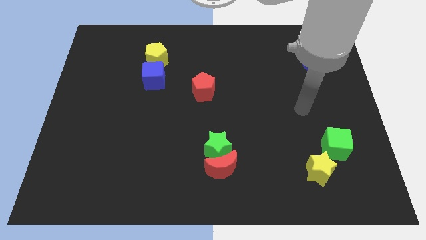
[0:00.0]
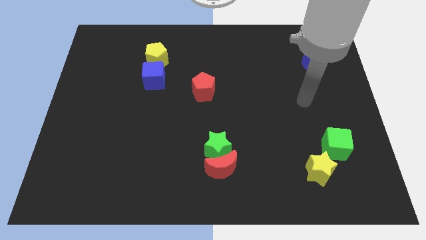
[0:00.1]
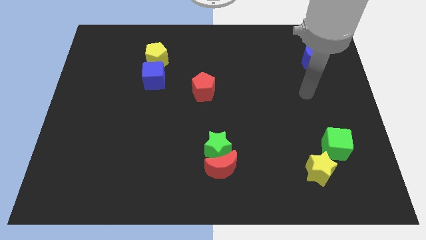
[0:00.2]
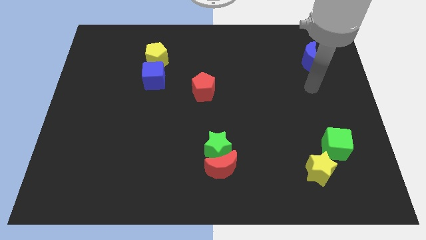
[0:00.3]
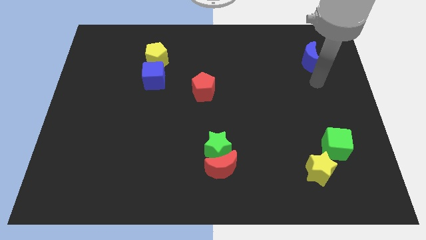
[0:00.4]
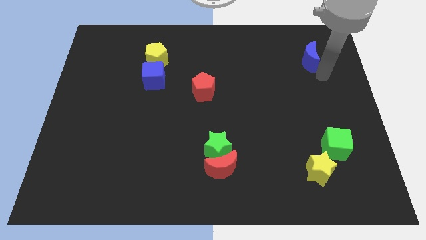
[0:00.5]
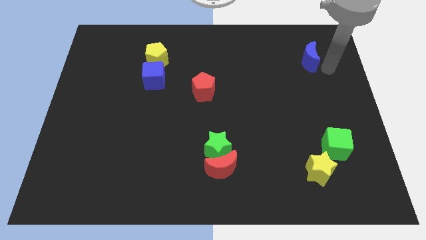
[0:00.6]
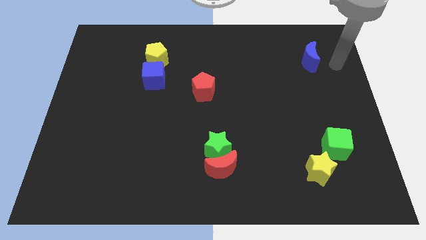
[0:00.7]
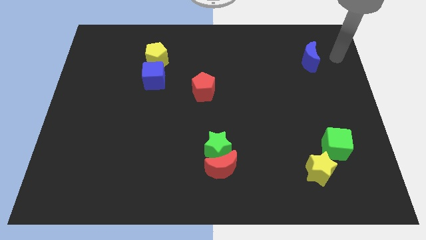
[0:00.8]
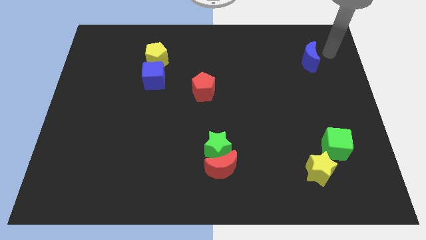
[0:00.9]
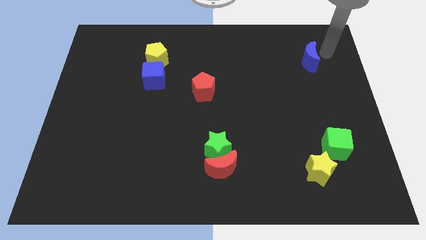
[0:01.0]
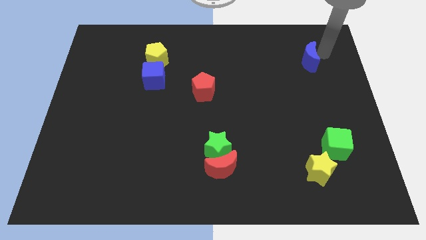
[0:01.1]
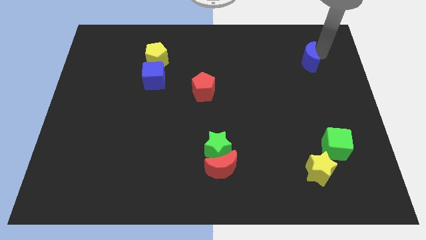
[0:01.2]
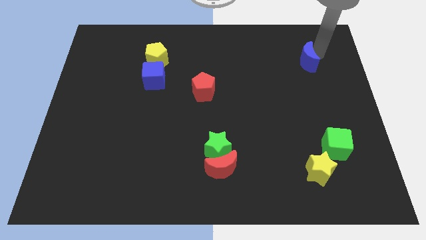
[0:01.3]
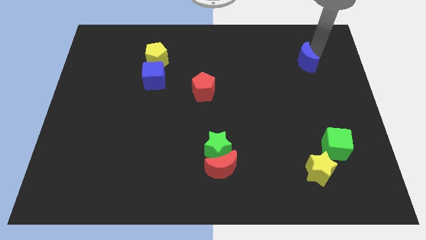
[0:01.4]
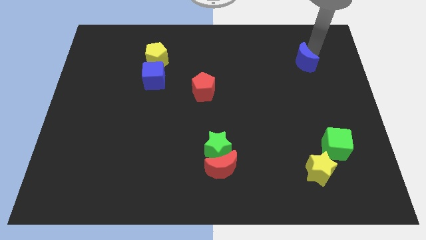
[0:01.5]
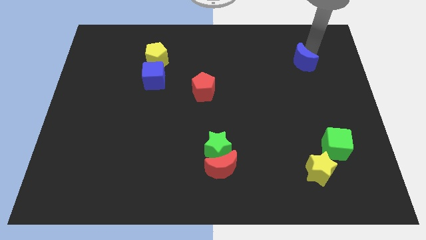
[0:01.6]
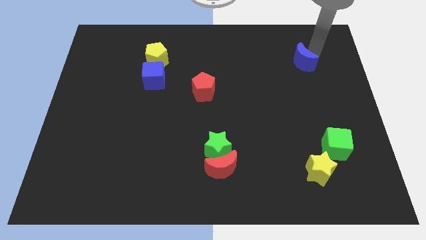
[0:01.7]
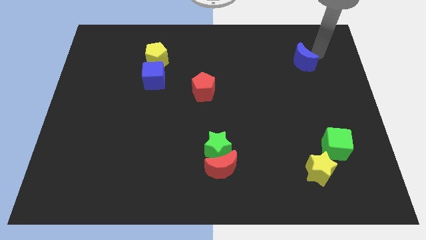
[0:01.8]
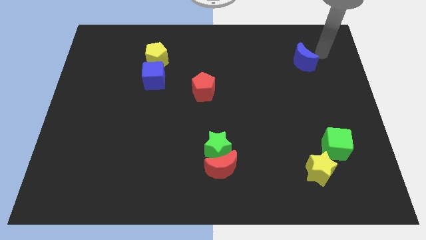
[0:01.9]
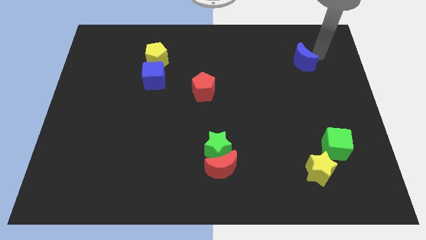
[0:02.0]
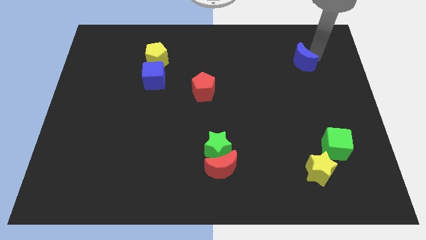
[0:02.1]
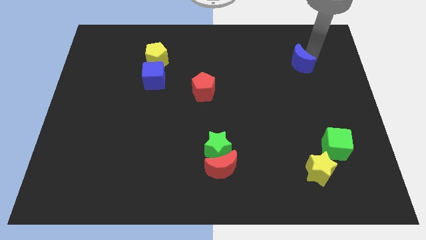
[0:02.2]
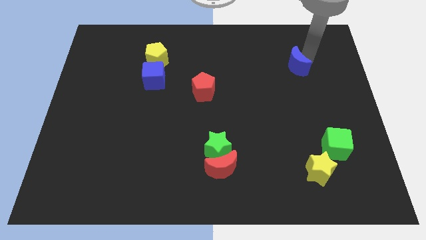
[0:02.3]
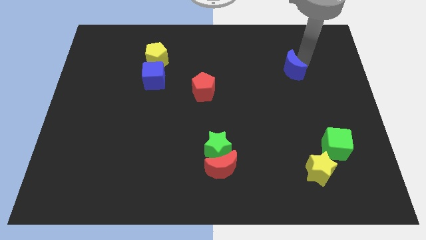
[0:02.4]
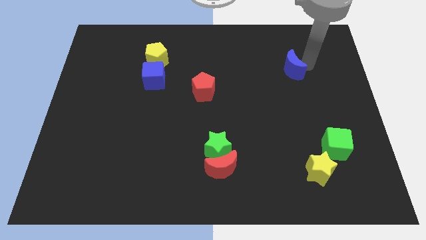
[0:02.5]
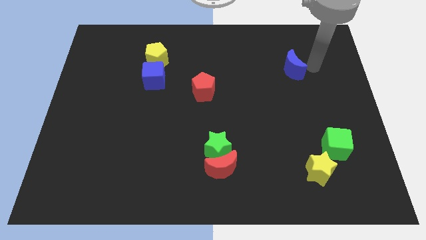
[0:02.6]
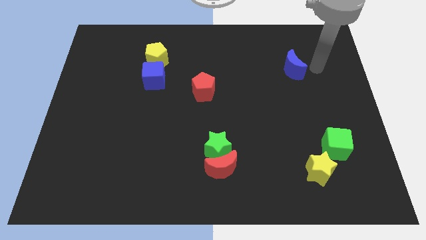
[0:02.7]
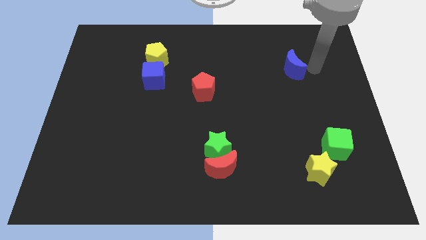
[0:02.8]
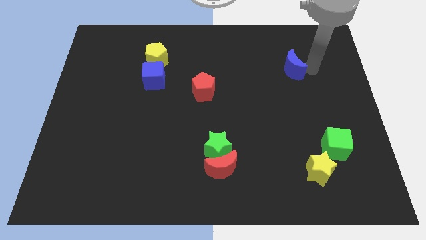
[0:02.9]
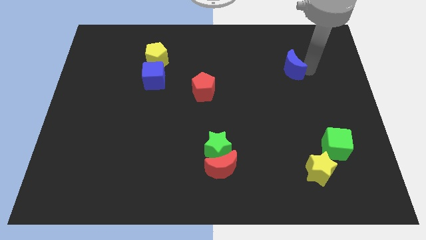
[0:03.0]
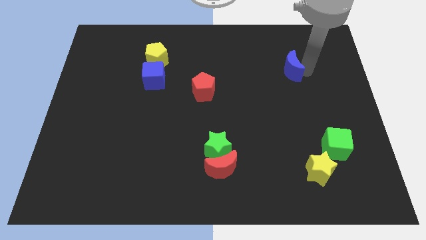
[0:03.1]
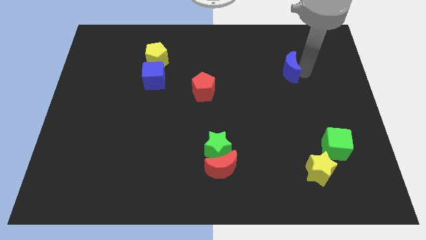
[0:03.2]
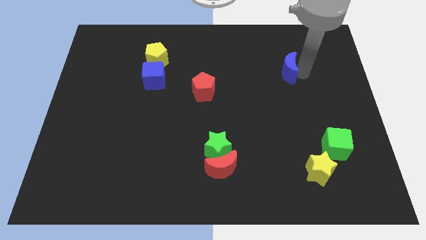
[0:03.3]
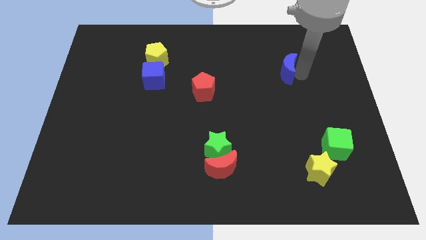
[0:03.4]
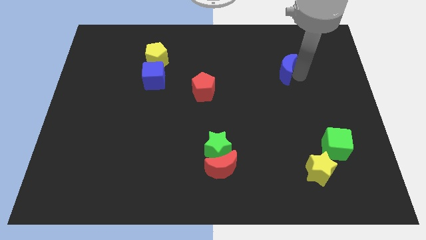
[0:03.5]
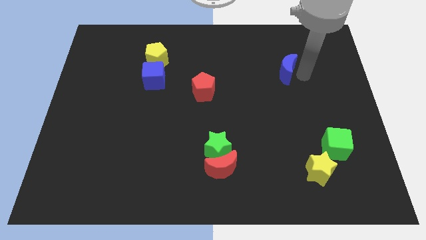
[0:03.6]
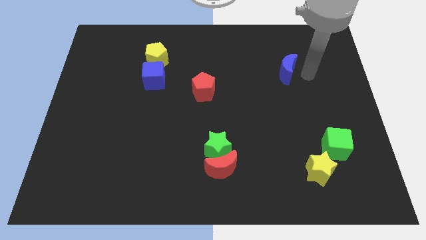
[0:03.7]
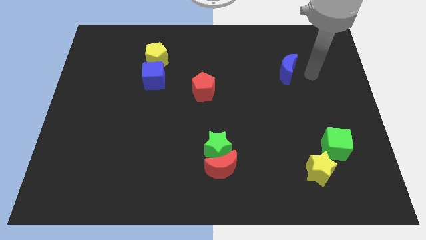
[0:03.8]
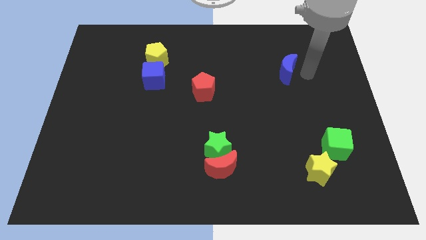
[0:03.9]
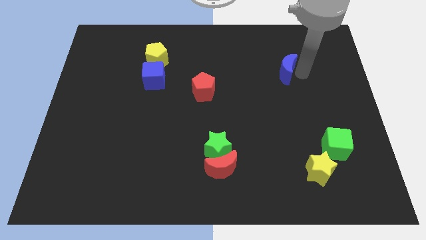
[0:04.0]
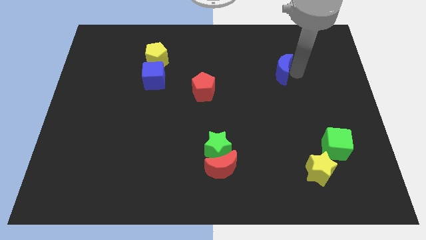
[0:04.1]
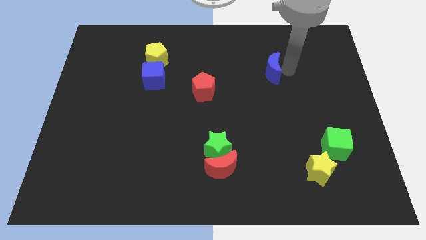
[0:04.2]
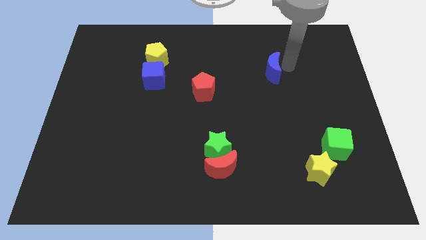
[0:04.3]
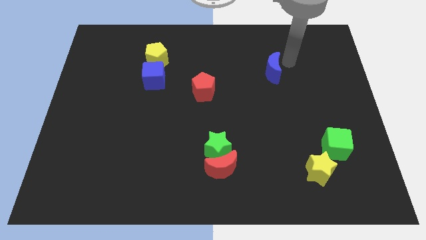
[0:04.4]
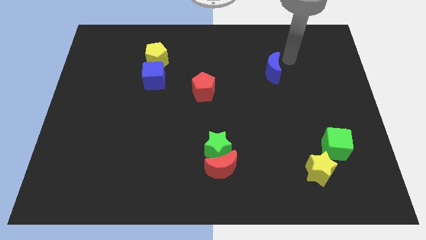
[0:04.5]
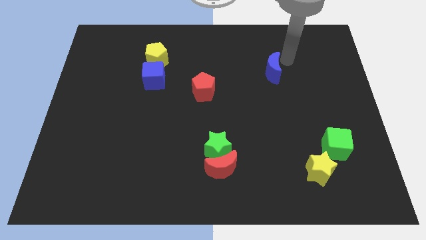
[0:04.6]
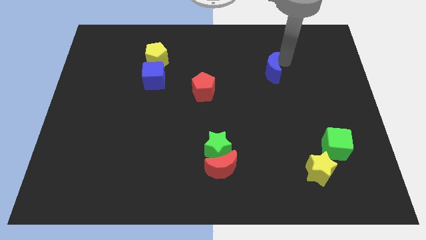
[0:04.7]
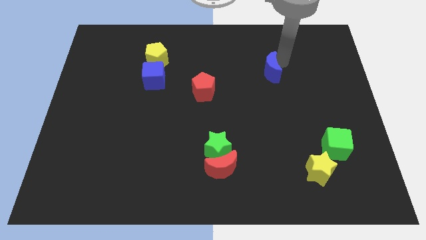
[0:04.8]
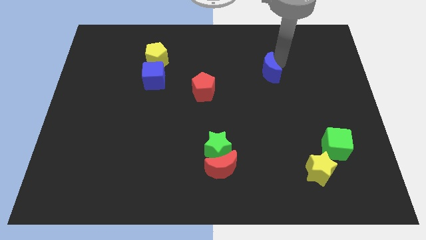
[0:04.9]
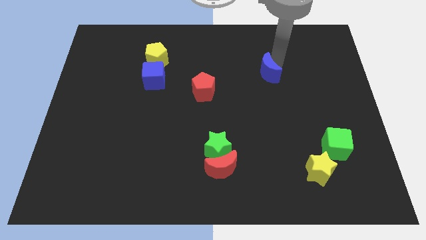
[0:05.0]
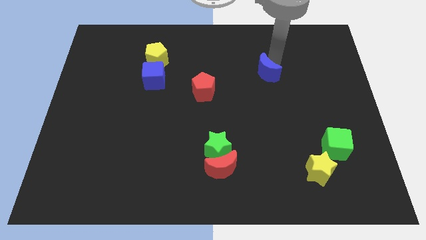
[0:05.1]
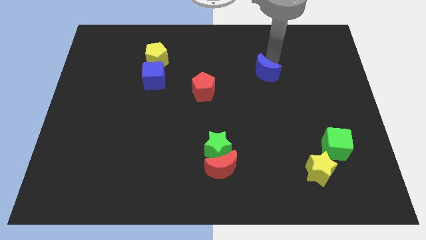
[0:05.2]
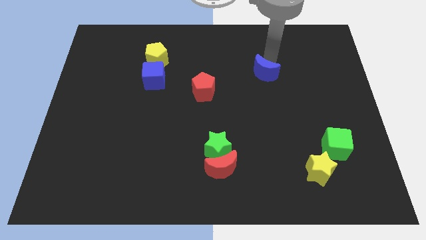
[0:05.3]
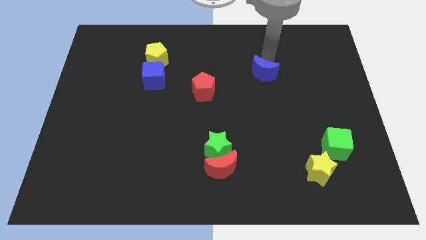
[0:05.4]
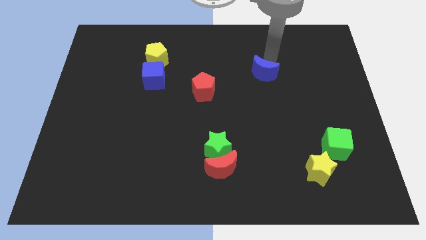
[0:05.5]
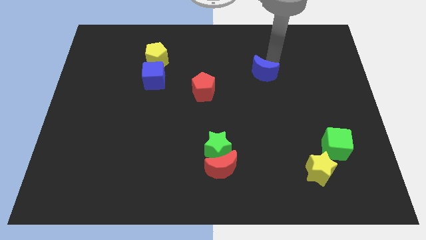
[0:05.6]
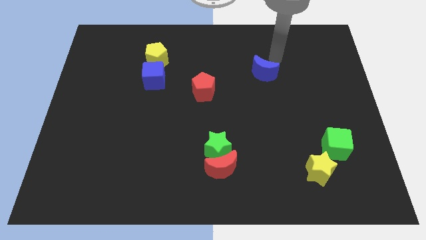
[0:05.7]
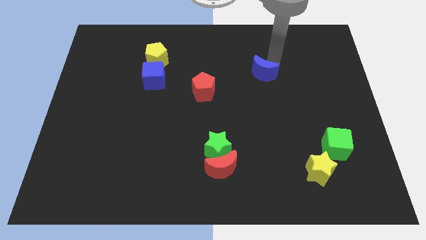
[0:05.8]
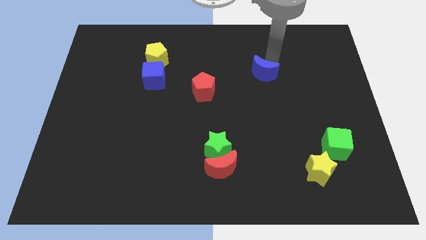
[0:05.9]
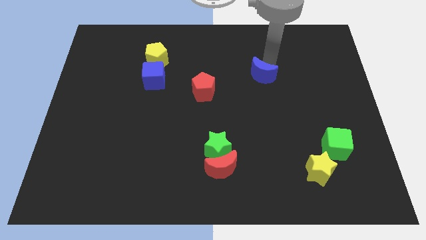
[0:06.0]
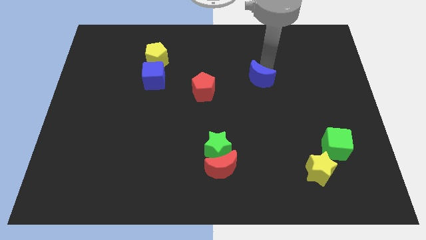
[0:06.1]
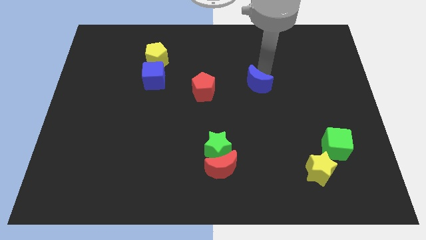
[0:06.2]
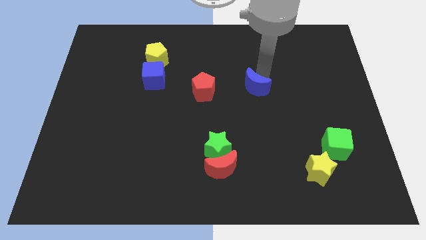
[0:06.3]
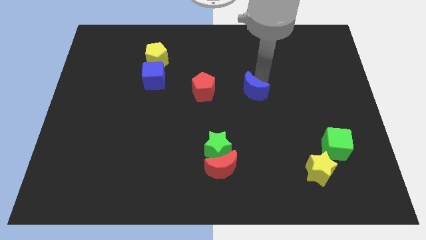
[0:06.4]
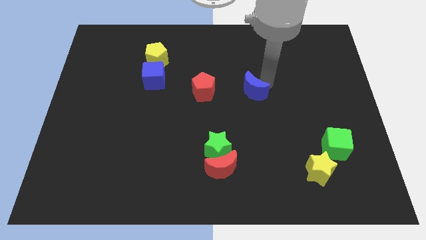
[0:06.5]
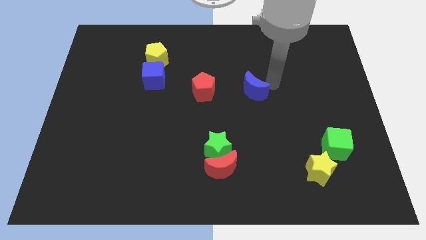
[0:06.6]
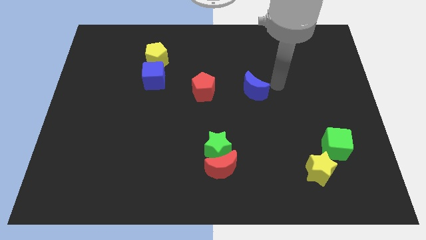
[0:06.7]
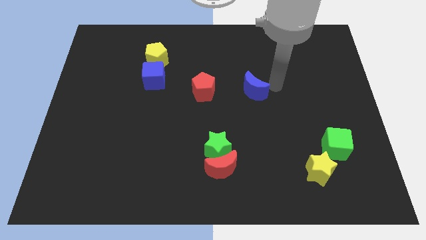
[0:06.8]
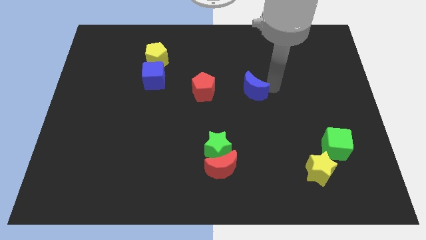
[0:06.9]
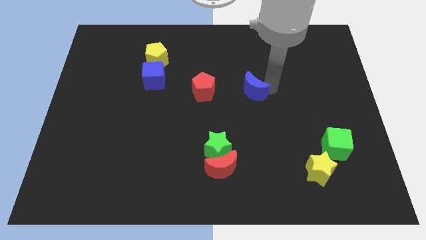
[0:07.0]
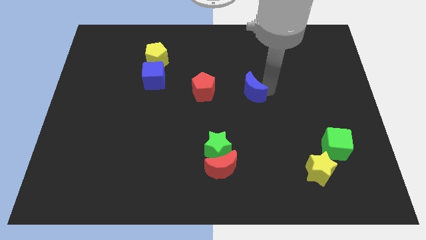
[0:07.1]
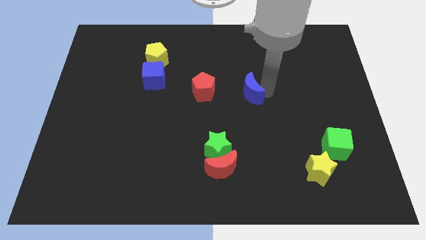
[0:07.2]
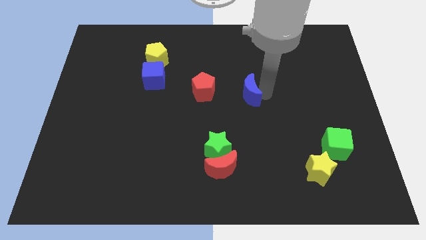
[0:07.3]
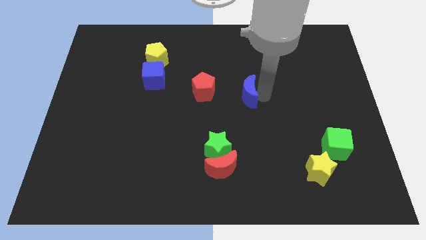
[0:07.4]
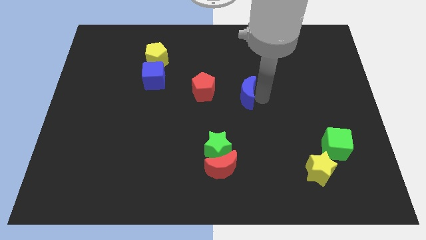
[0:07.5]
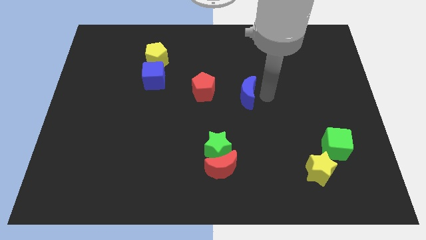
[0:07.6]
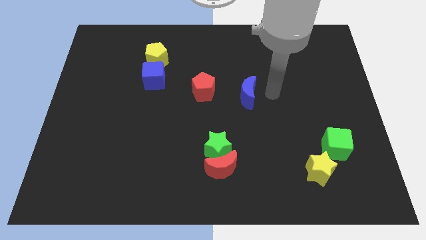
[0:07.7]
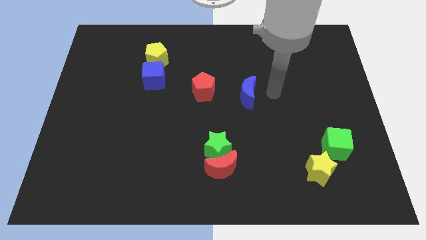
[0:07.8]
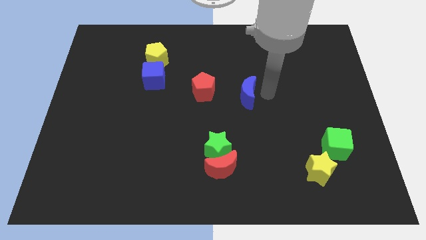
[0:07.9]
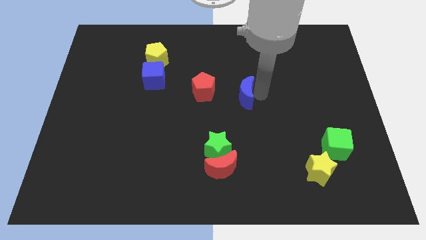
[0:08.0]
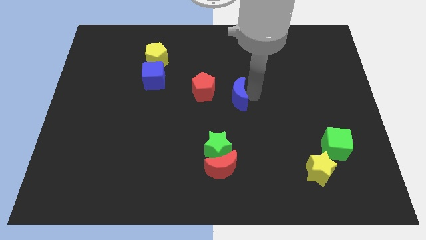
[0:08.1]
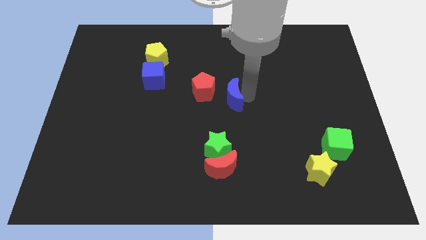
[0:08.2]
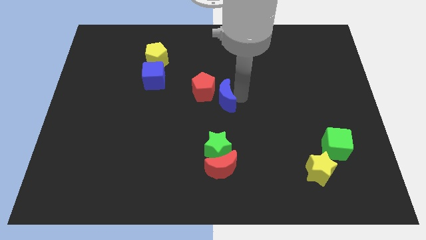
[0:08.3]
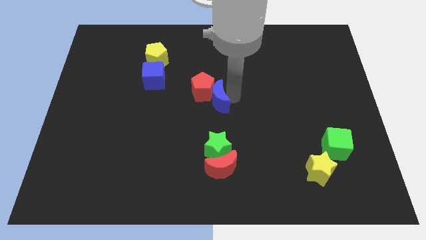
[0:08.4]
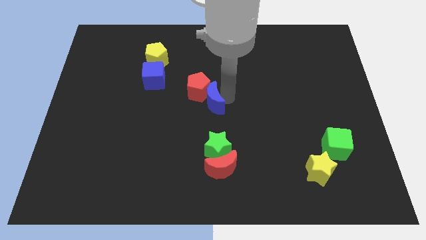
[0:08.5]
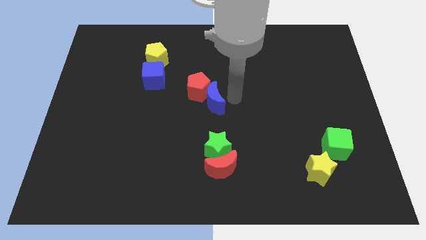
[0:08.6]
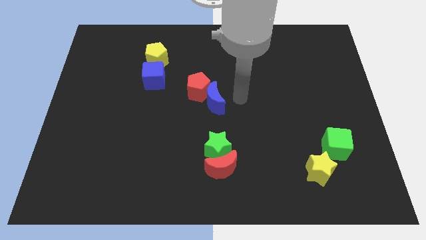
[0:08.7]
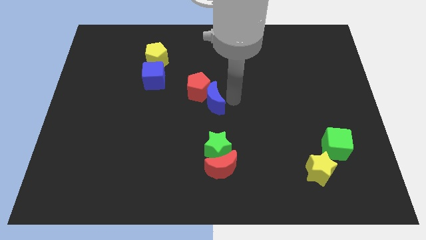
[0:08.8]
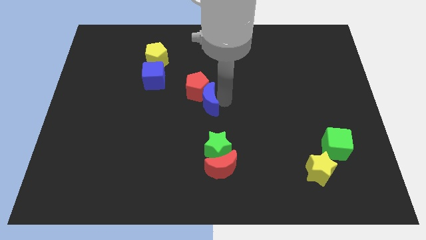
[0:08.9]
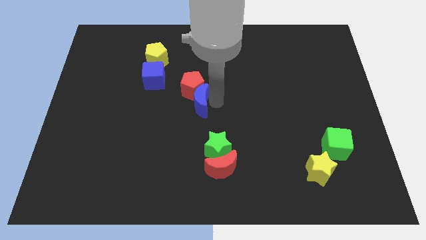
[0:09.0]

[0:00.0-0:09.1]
put the blue moon diagonally down and to the left of the red pentagon
